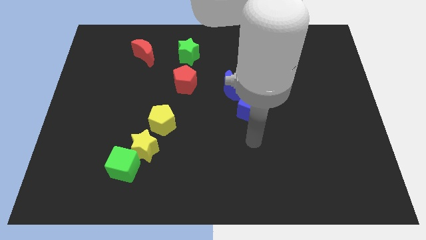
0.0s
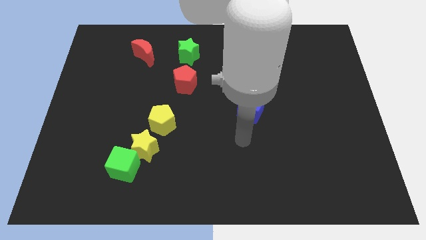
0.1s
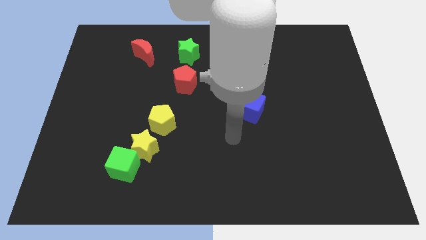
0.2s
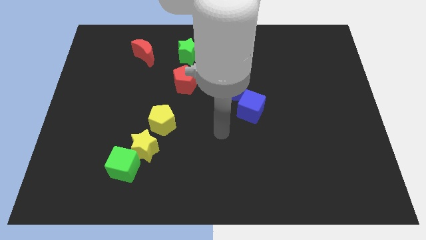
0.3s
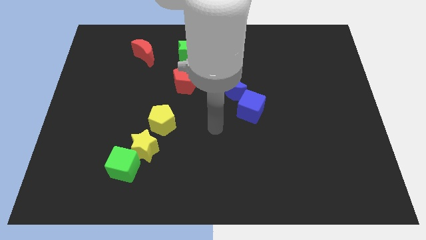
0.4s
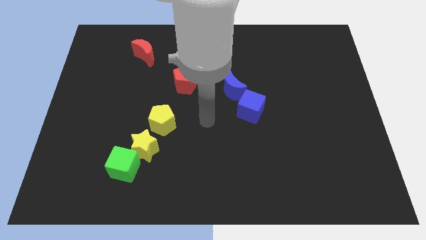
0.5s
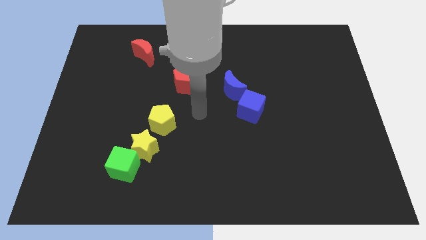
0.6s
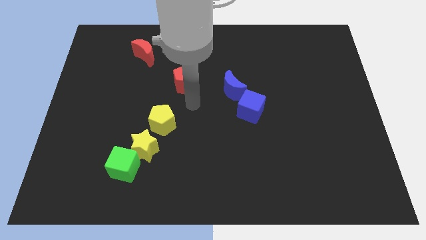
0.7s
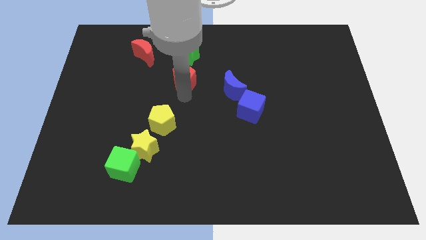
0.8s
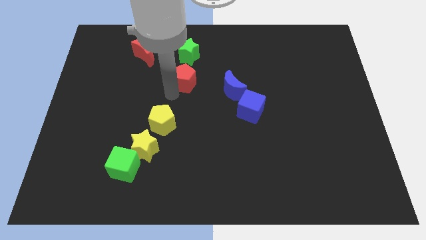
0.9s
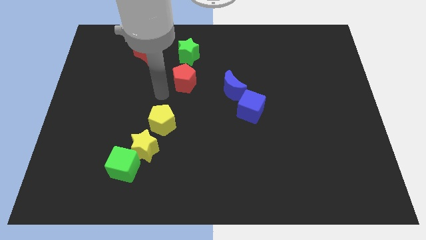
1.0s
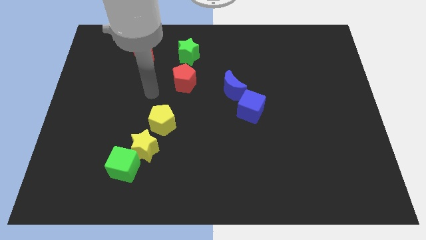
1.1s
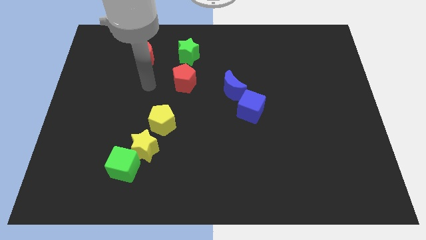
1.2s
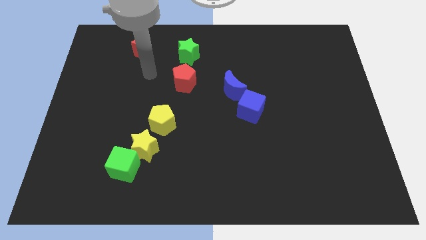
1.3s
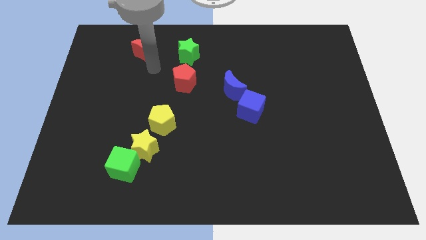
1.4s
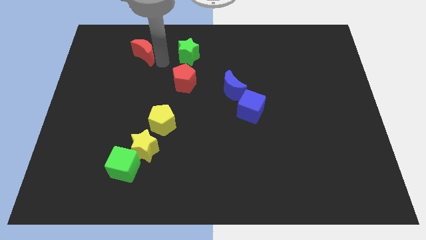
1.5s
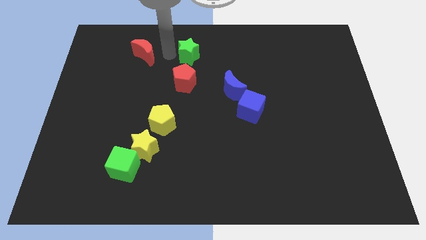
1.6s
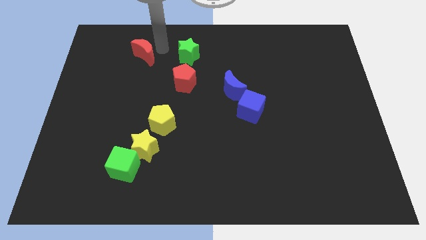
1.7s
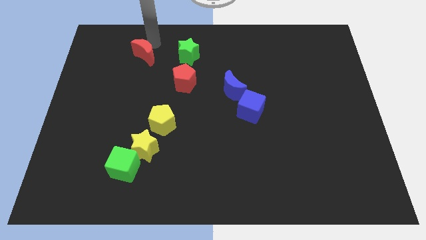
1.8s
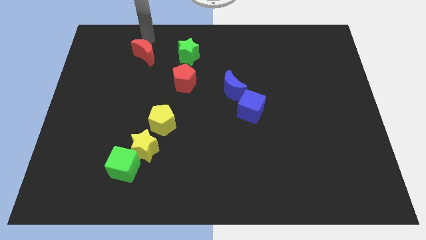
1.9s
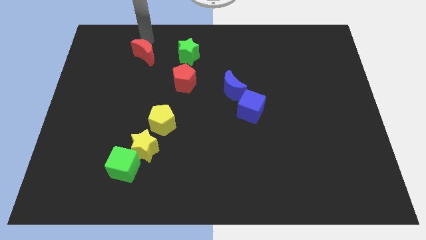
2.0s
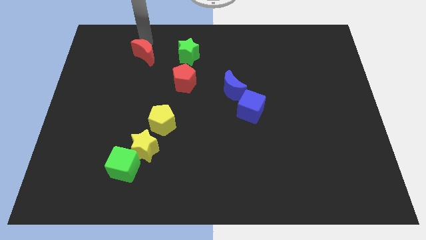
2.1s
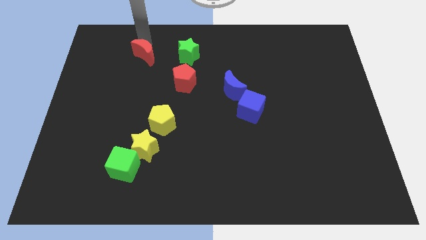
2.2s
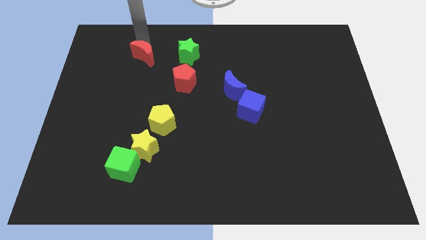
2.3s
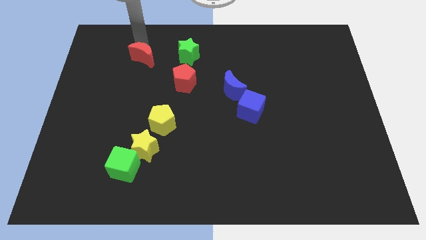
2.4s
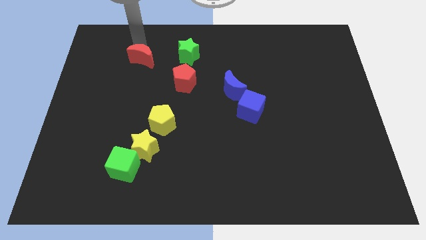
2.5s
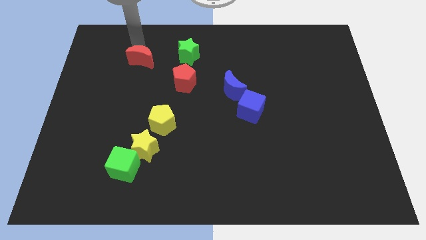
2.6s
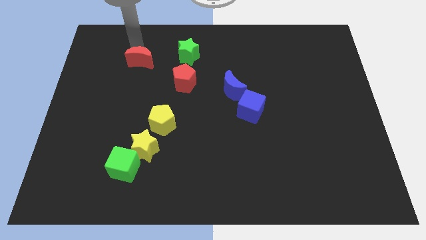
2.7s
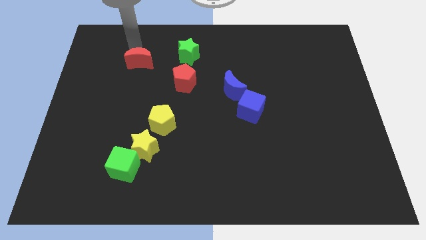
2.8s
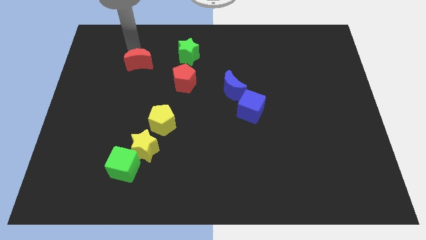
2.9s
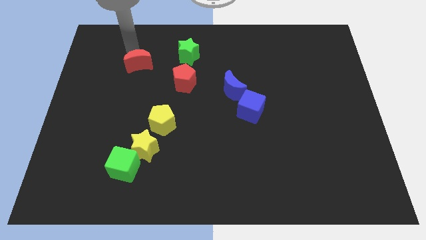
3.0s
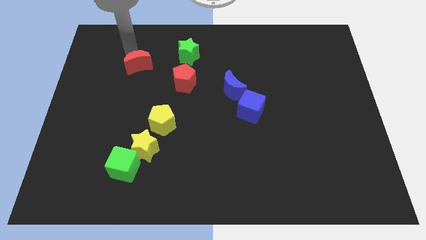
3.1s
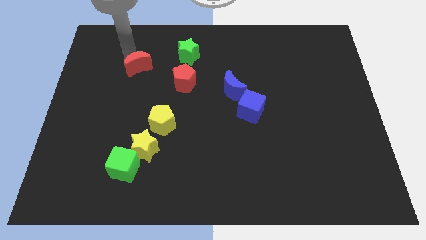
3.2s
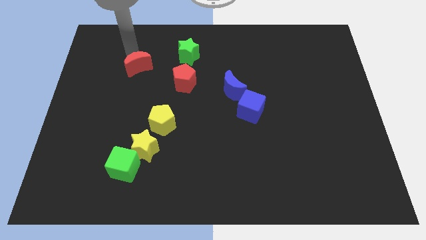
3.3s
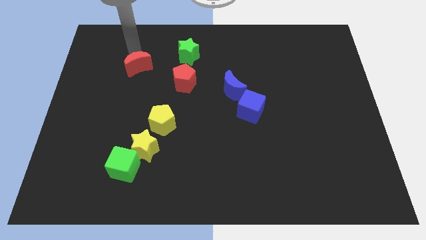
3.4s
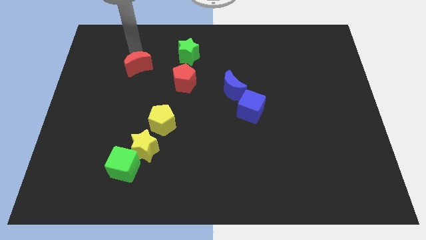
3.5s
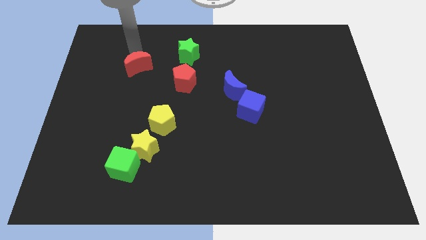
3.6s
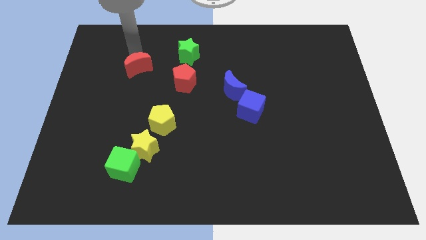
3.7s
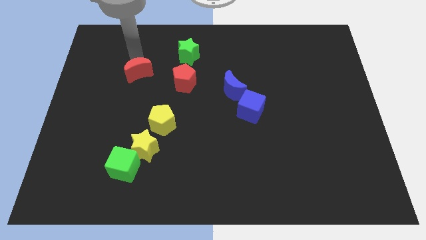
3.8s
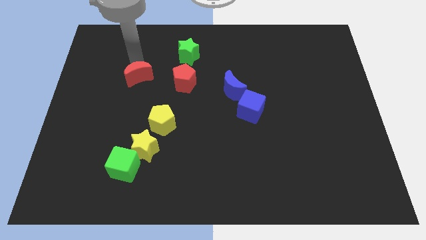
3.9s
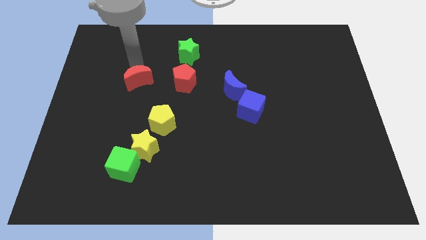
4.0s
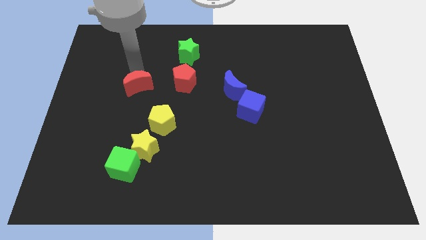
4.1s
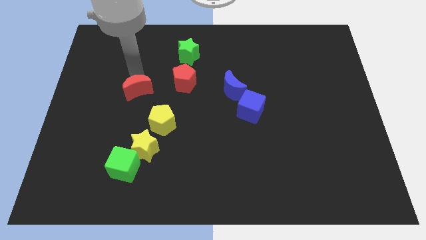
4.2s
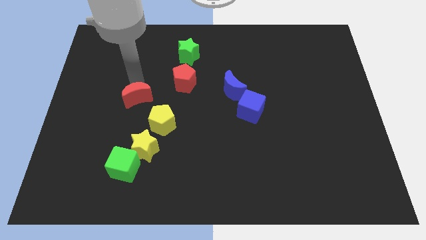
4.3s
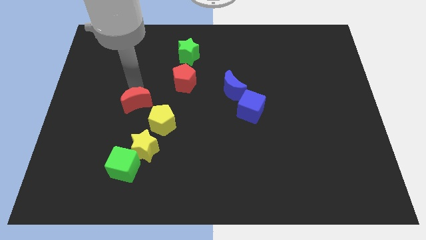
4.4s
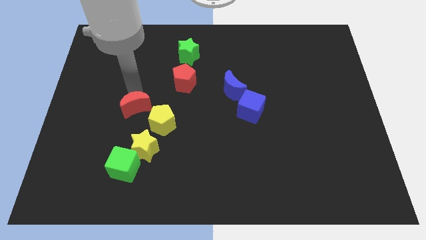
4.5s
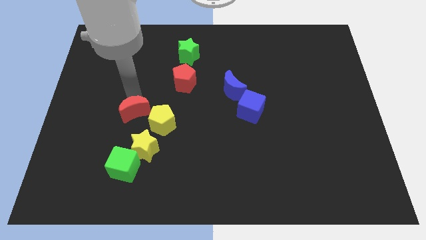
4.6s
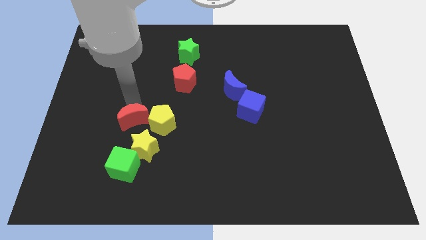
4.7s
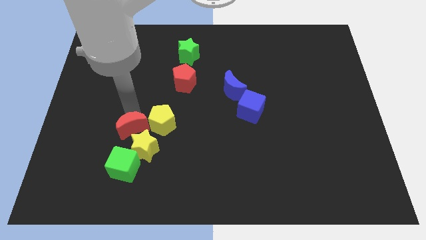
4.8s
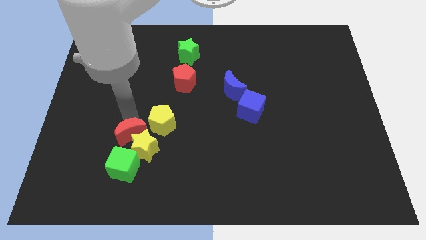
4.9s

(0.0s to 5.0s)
move the red moon close to the yellow star

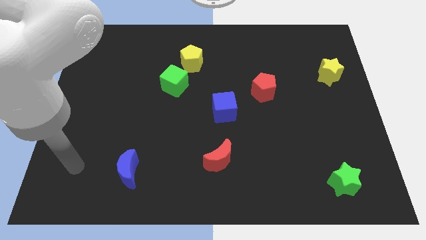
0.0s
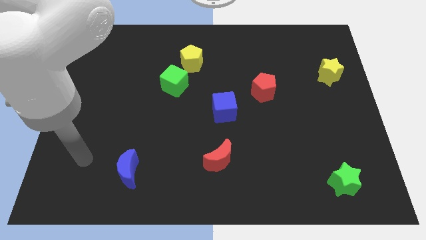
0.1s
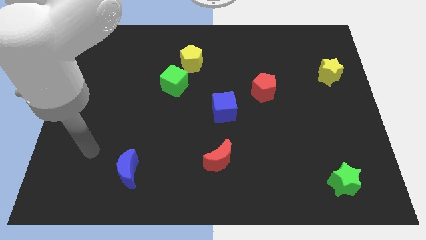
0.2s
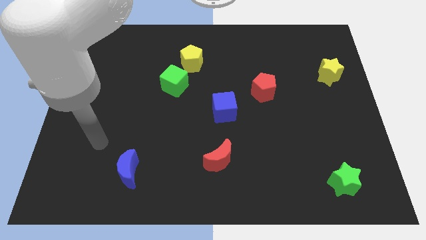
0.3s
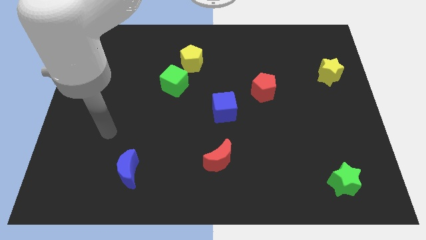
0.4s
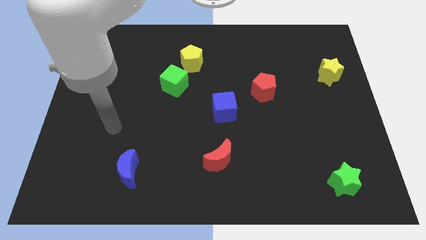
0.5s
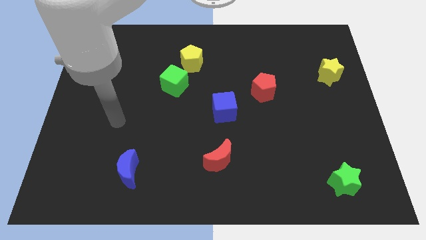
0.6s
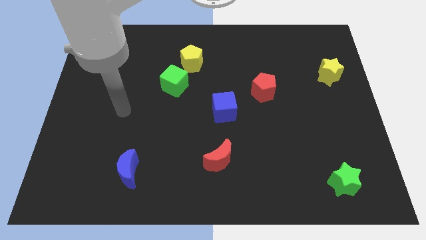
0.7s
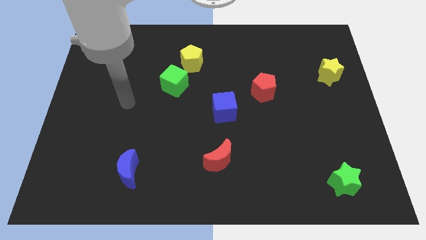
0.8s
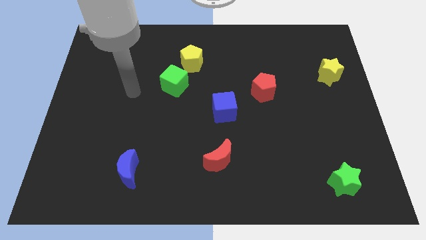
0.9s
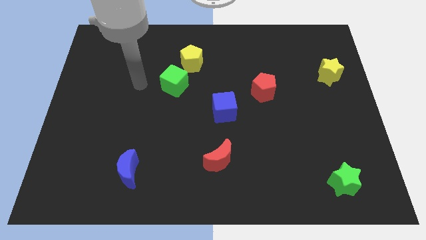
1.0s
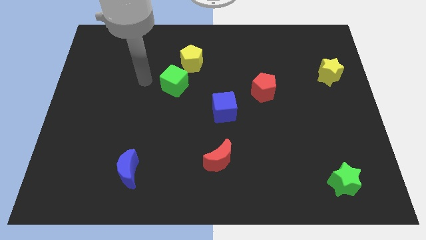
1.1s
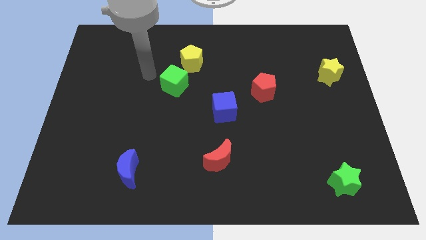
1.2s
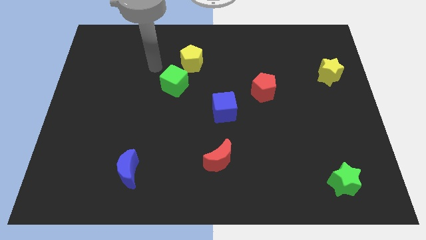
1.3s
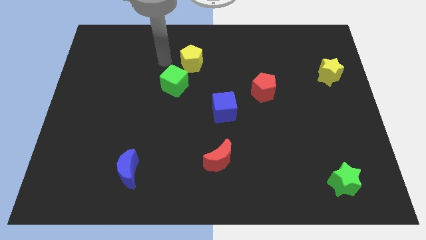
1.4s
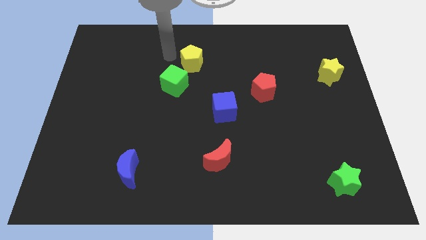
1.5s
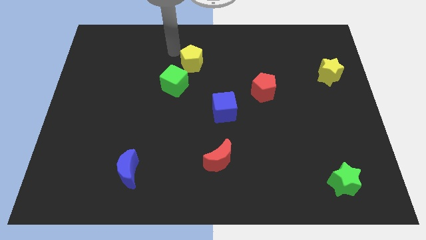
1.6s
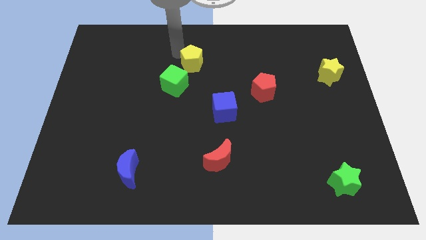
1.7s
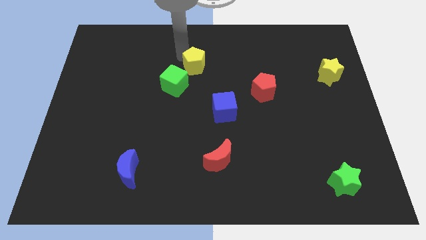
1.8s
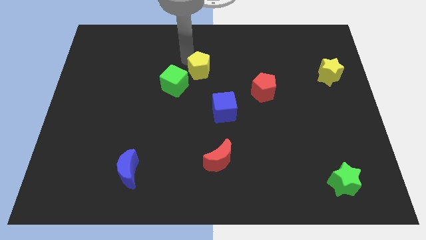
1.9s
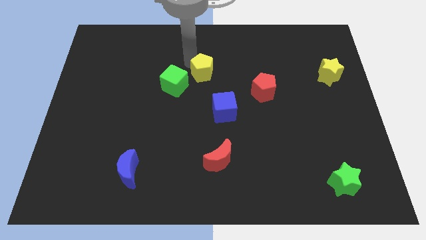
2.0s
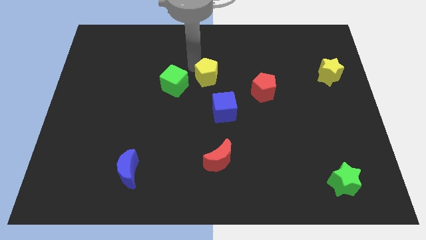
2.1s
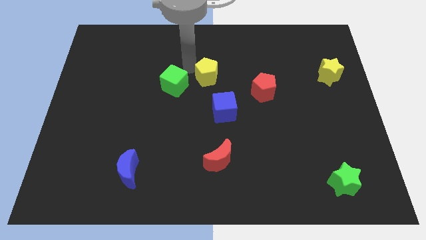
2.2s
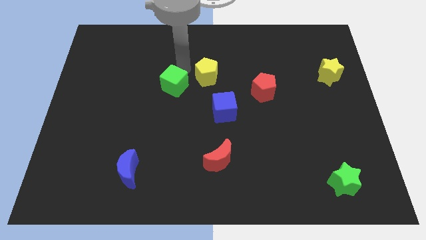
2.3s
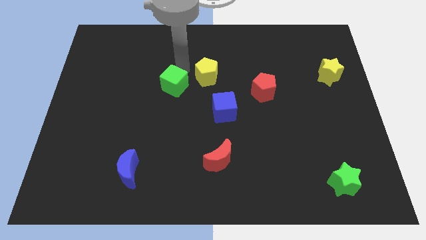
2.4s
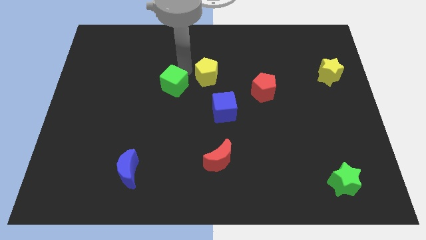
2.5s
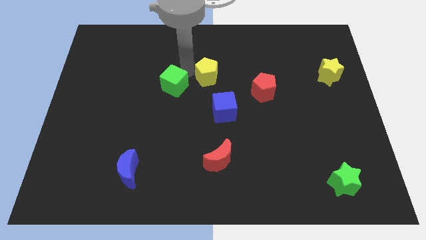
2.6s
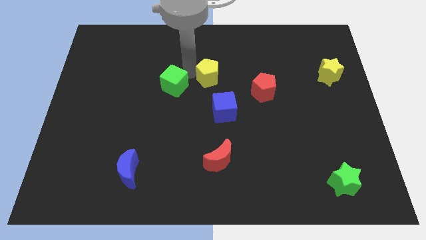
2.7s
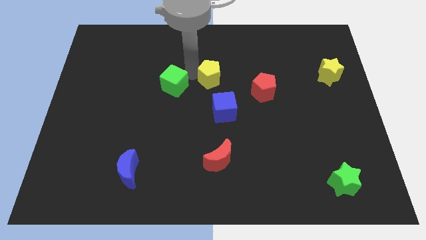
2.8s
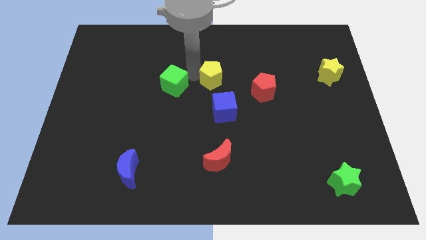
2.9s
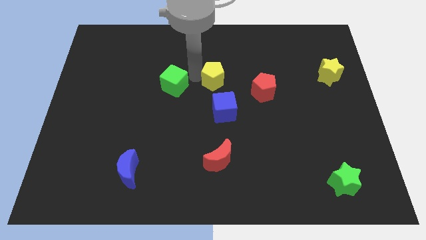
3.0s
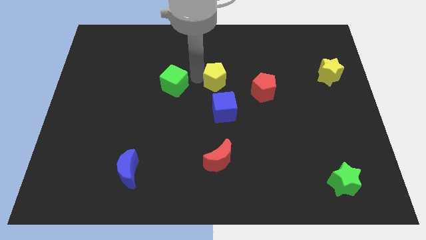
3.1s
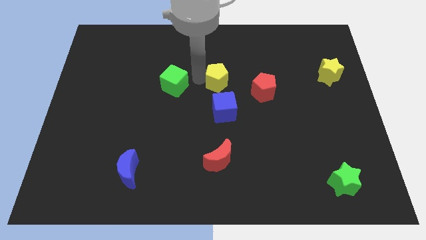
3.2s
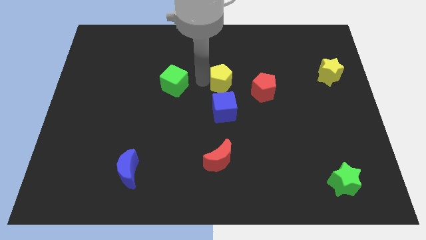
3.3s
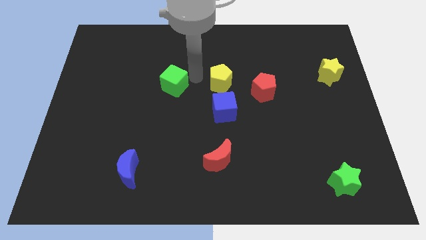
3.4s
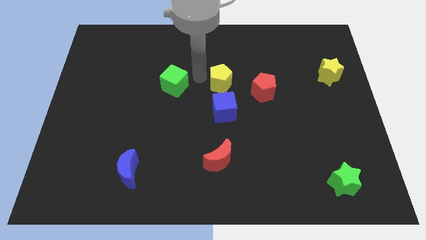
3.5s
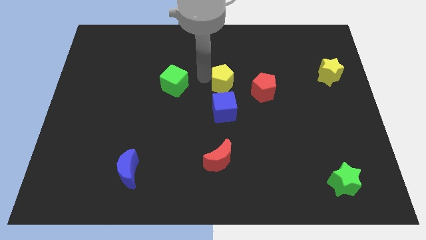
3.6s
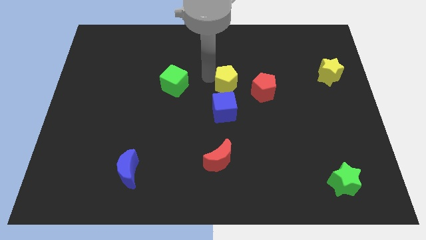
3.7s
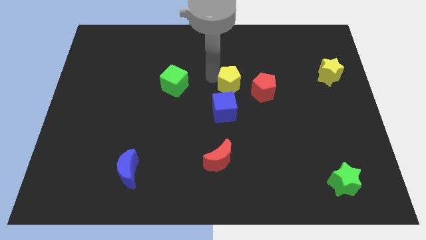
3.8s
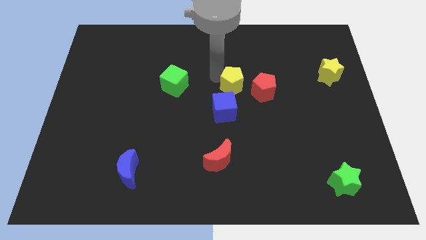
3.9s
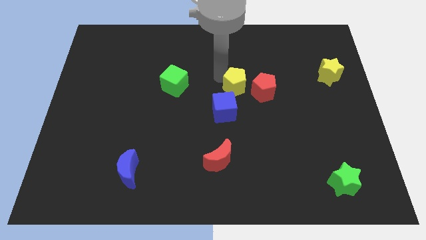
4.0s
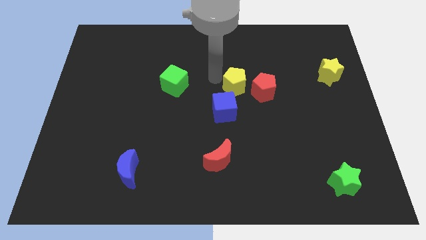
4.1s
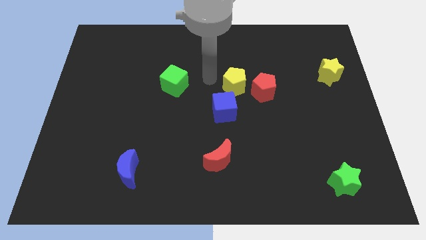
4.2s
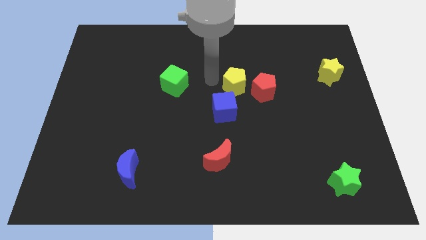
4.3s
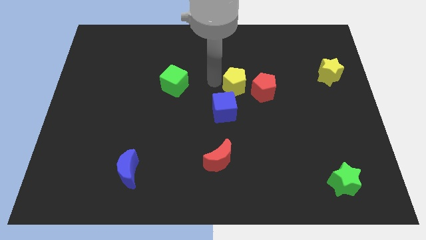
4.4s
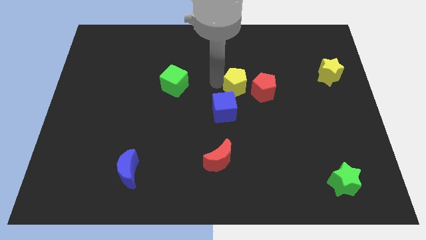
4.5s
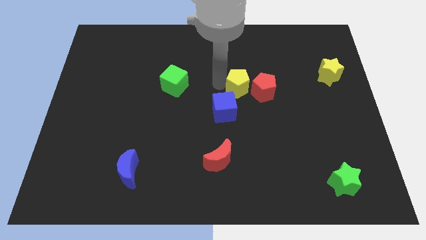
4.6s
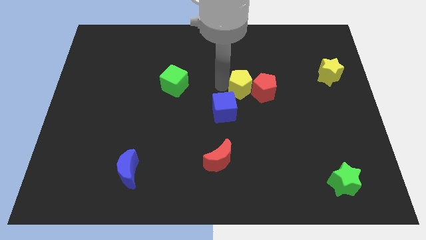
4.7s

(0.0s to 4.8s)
push the yellow pentagon next to the red pentagon
